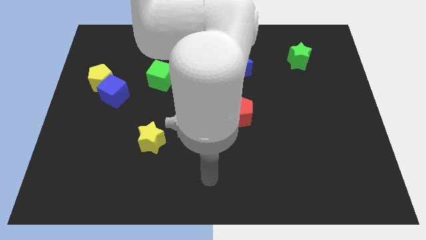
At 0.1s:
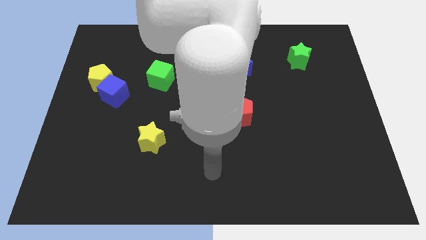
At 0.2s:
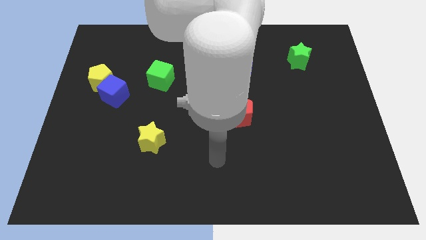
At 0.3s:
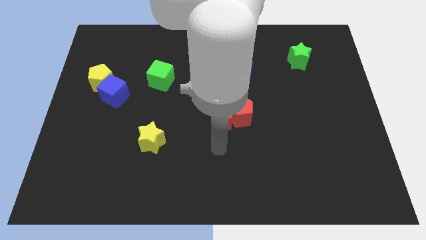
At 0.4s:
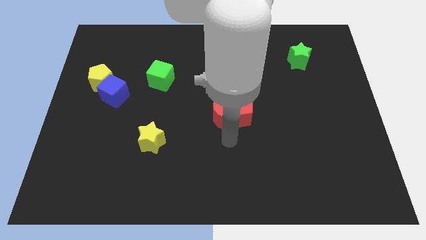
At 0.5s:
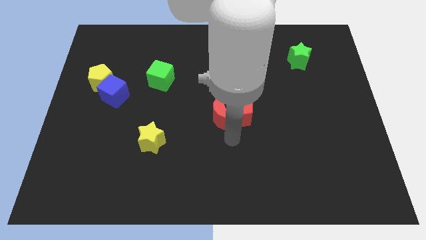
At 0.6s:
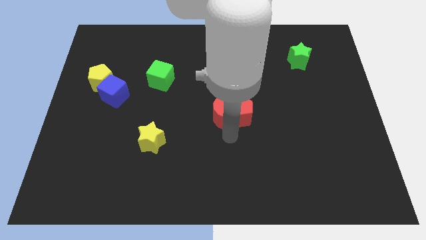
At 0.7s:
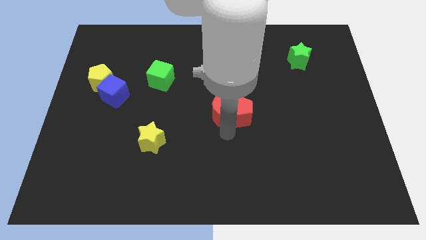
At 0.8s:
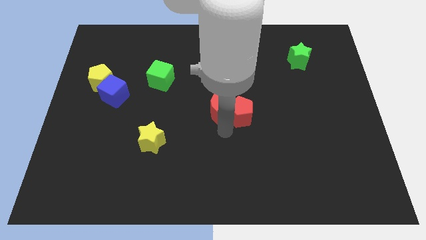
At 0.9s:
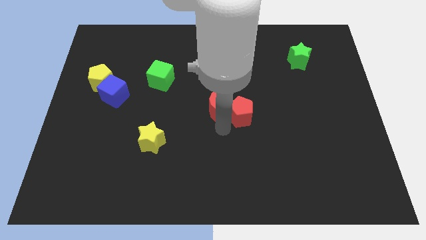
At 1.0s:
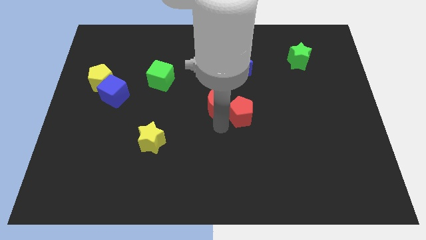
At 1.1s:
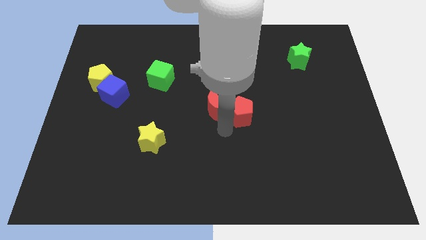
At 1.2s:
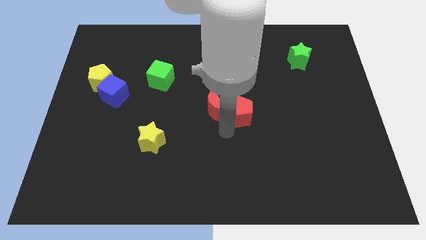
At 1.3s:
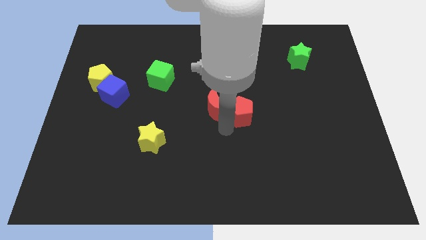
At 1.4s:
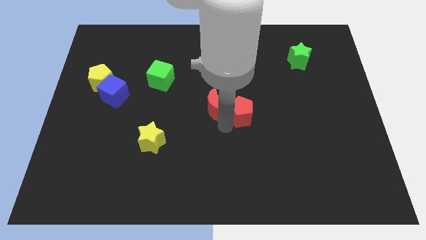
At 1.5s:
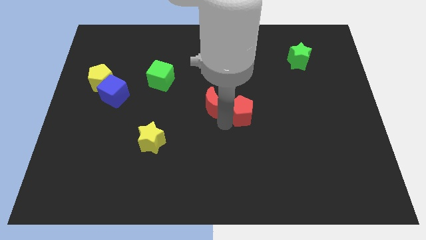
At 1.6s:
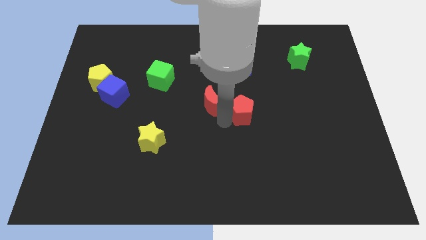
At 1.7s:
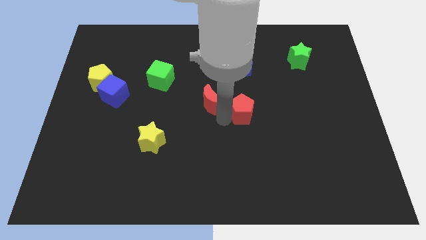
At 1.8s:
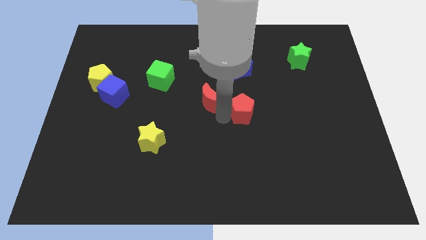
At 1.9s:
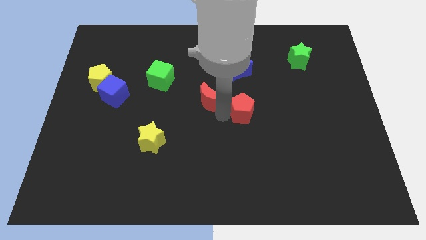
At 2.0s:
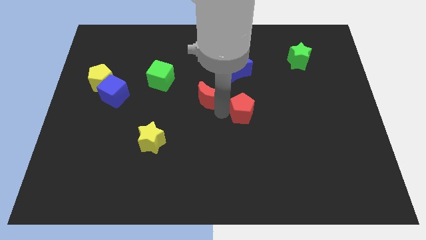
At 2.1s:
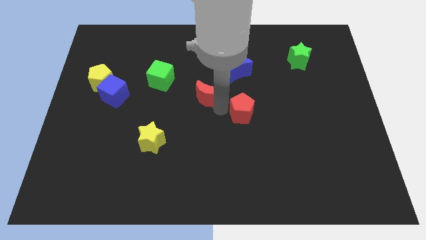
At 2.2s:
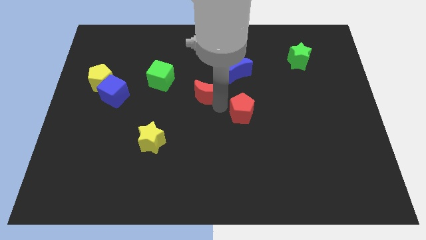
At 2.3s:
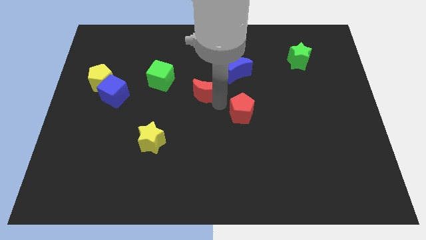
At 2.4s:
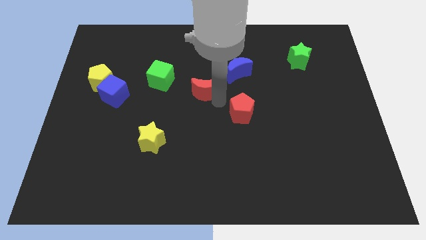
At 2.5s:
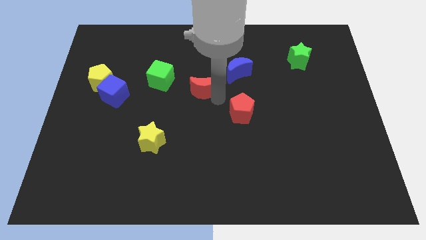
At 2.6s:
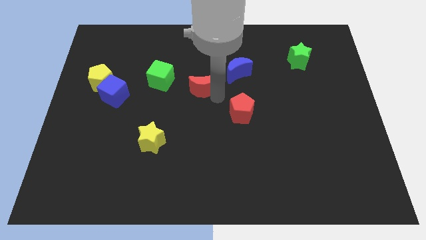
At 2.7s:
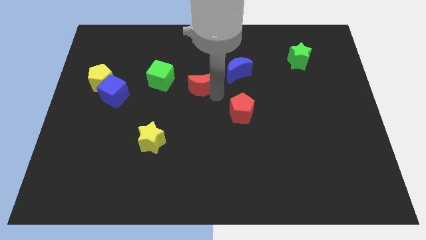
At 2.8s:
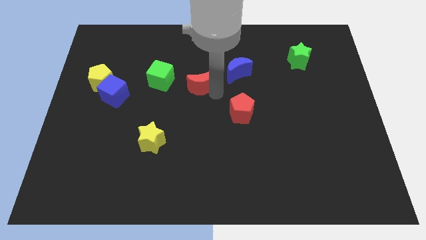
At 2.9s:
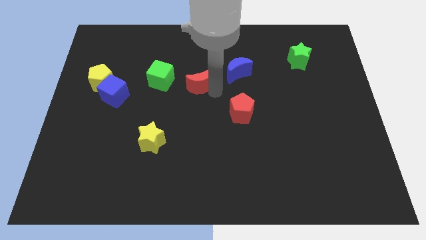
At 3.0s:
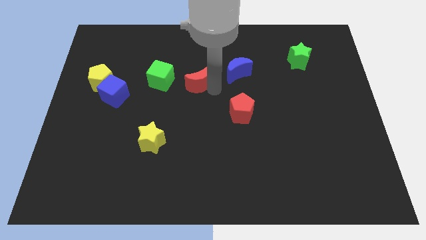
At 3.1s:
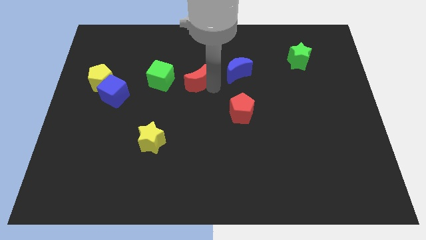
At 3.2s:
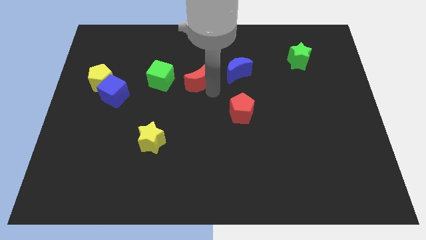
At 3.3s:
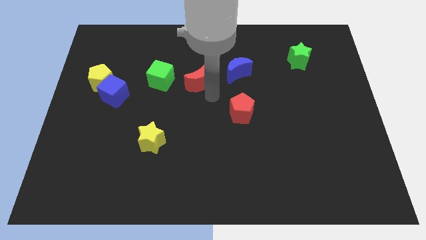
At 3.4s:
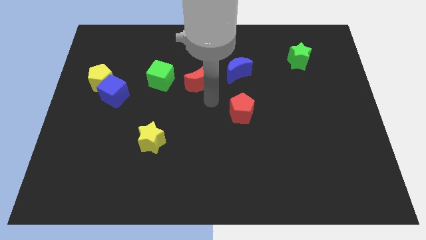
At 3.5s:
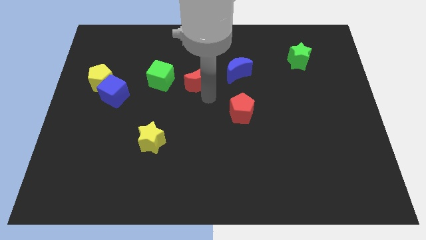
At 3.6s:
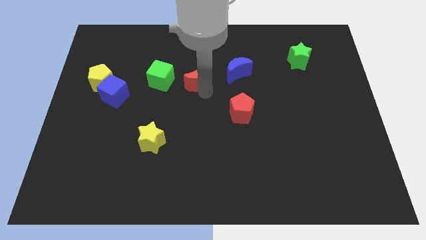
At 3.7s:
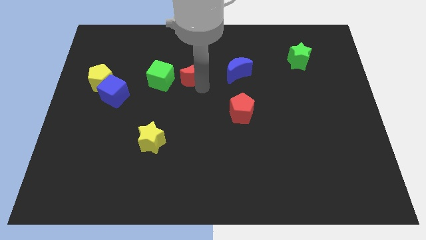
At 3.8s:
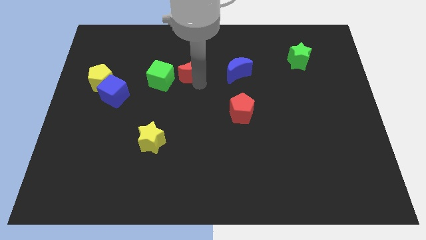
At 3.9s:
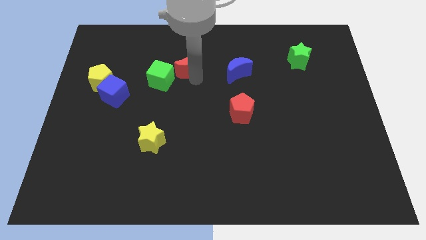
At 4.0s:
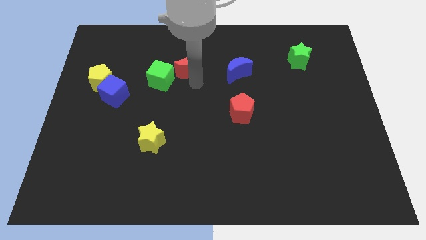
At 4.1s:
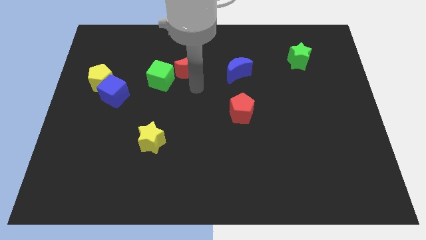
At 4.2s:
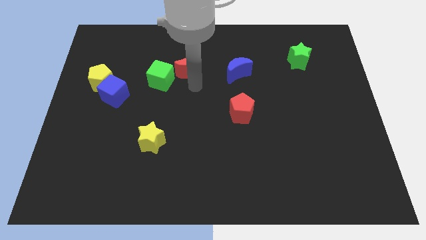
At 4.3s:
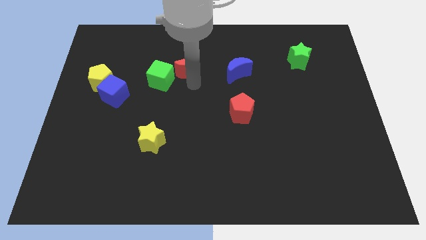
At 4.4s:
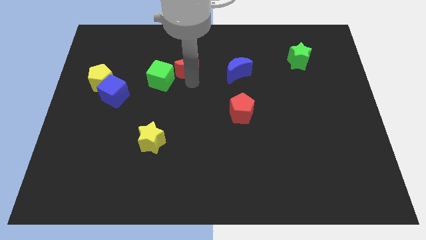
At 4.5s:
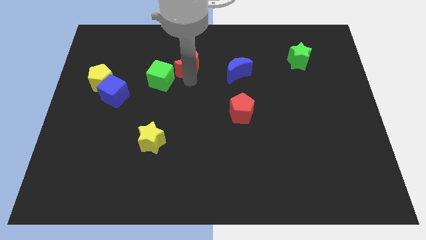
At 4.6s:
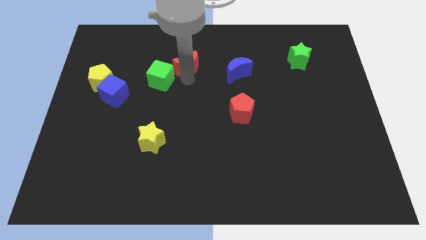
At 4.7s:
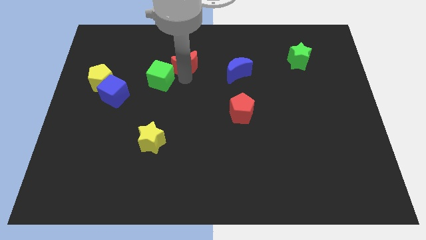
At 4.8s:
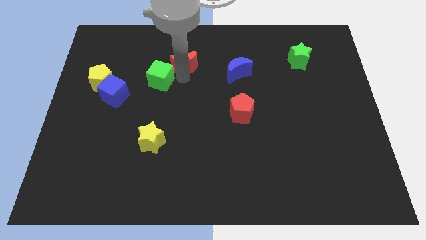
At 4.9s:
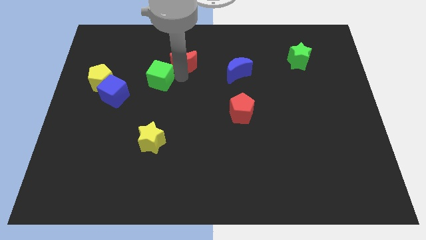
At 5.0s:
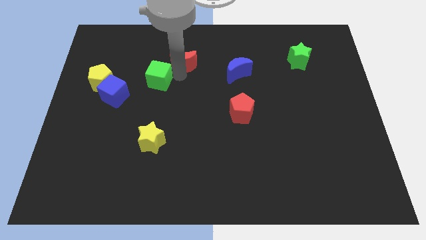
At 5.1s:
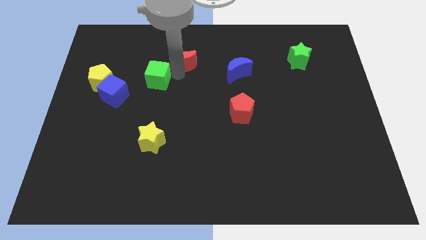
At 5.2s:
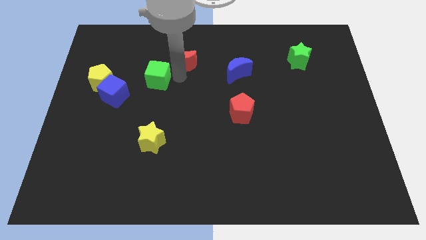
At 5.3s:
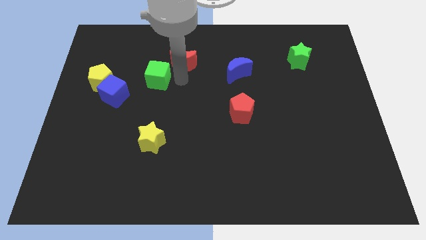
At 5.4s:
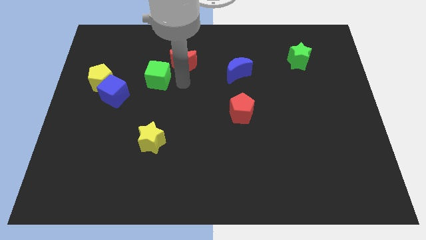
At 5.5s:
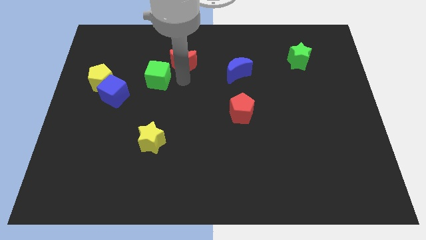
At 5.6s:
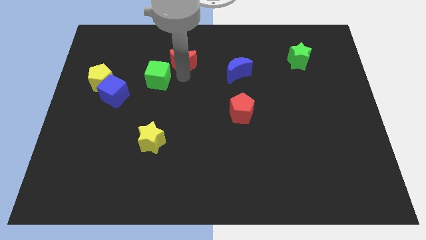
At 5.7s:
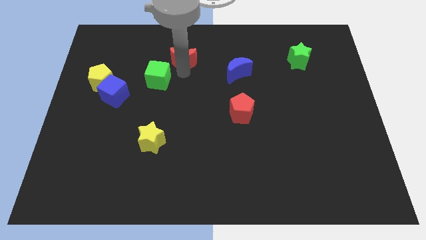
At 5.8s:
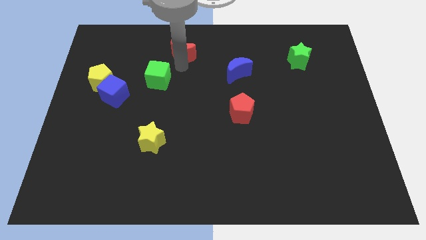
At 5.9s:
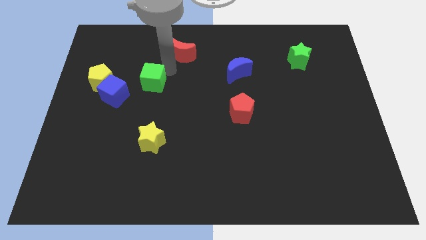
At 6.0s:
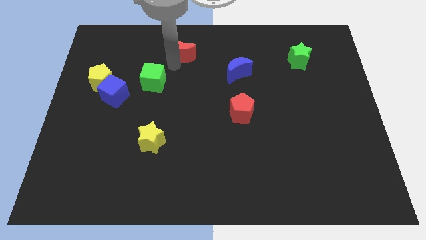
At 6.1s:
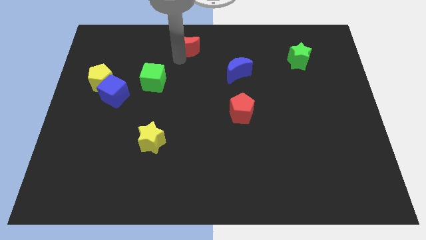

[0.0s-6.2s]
move the red moon to the towards your base

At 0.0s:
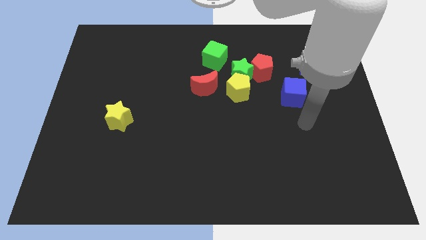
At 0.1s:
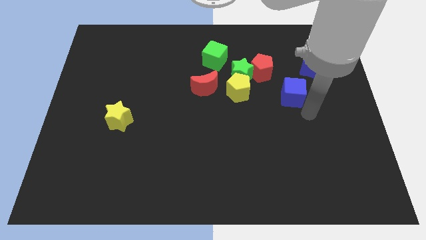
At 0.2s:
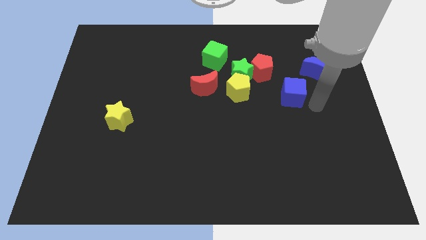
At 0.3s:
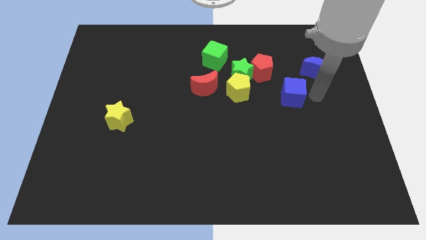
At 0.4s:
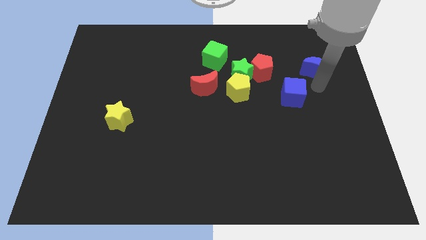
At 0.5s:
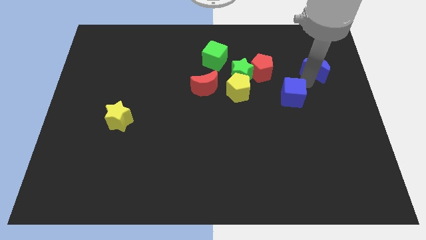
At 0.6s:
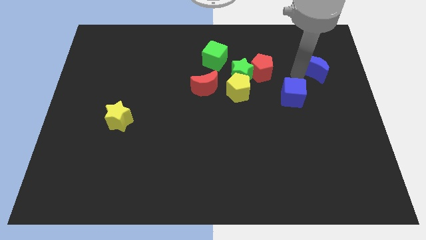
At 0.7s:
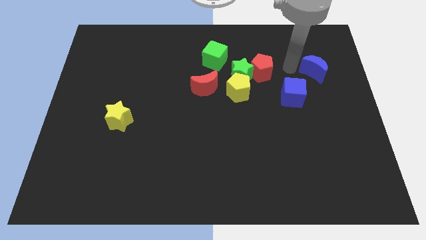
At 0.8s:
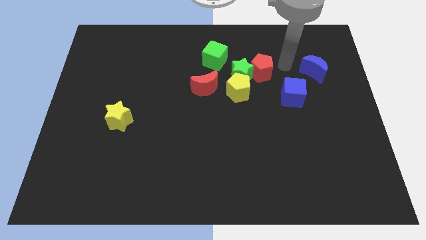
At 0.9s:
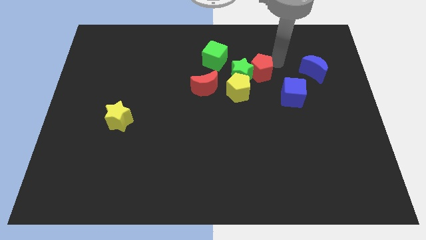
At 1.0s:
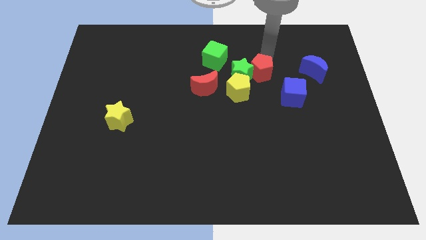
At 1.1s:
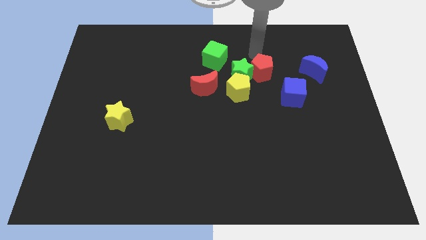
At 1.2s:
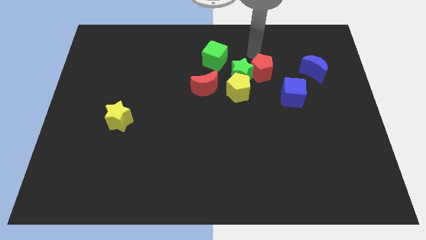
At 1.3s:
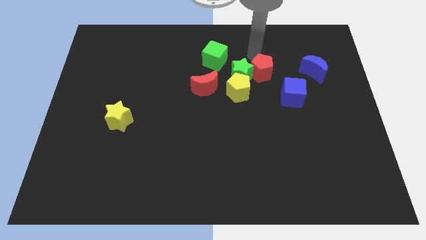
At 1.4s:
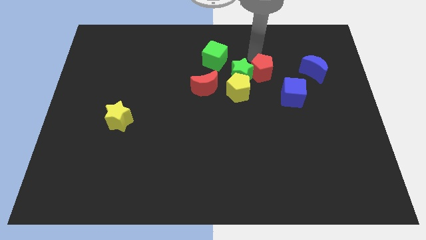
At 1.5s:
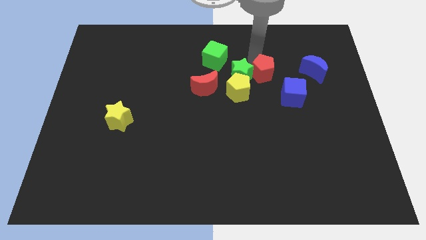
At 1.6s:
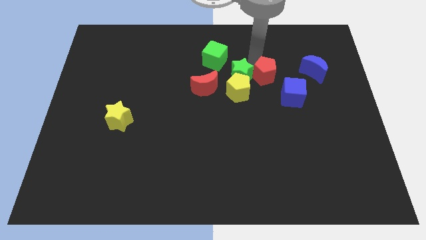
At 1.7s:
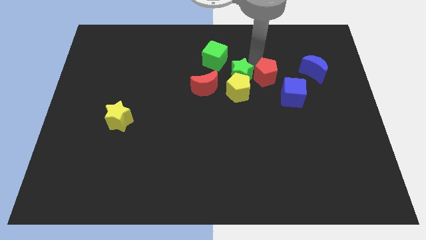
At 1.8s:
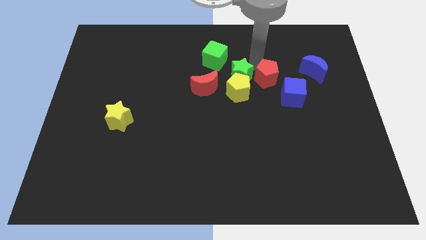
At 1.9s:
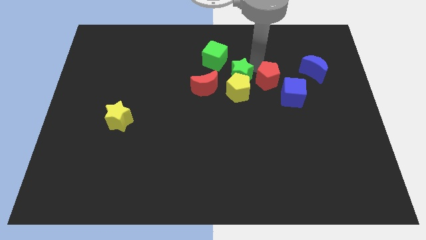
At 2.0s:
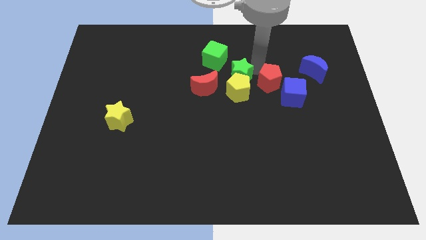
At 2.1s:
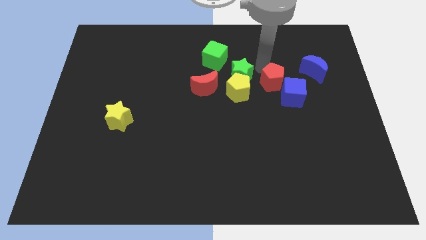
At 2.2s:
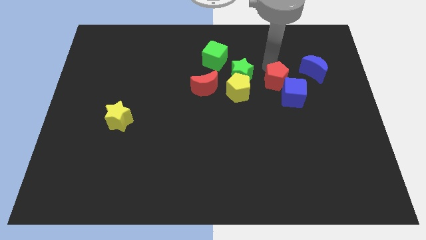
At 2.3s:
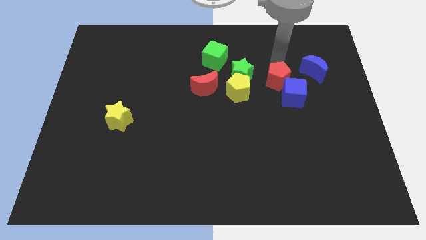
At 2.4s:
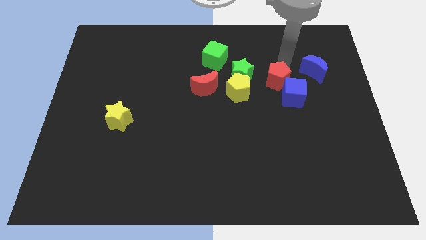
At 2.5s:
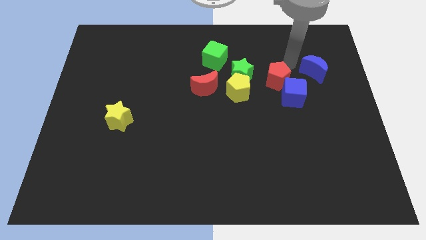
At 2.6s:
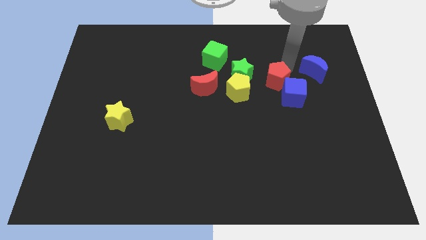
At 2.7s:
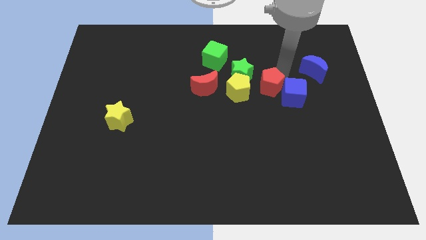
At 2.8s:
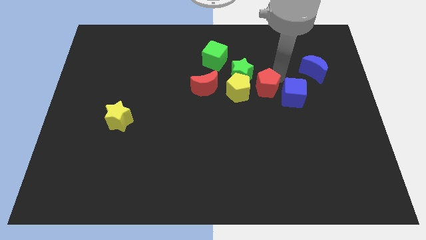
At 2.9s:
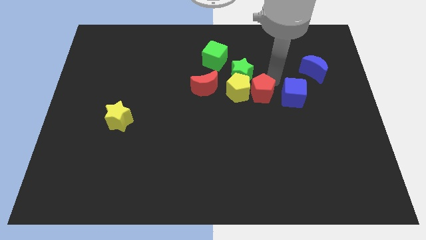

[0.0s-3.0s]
move the red pentagon to the middle
